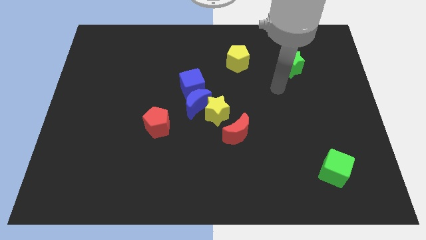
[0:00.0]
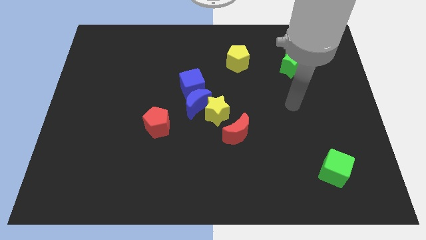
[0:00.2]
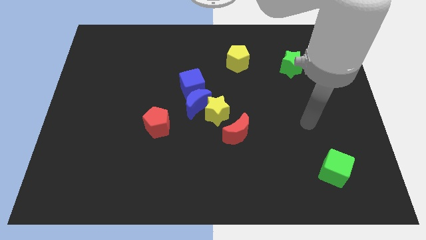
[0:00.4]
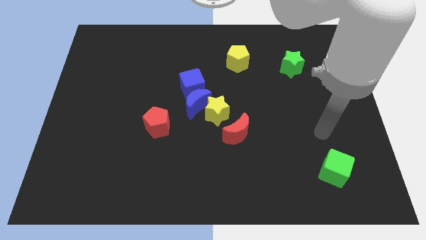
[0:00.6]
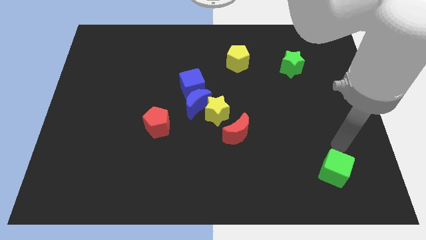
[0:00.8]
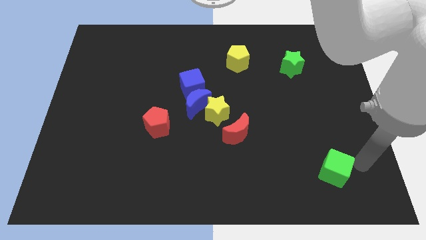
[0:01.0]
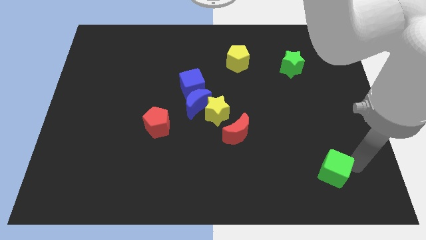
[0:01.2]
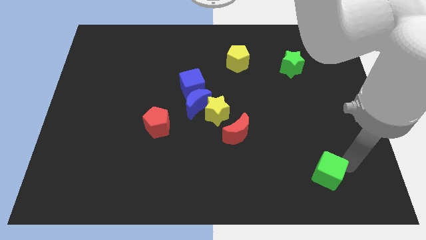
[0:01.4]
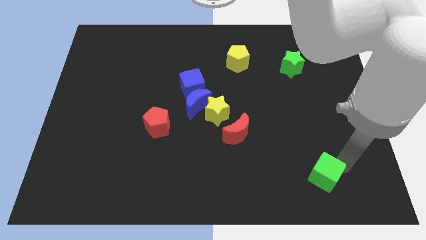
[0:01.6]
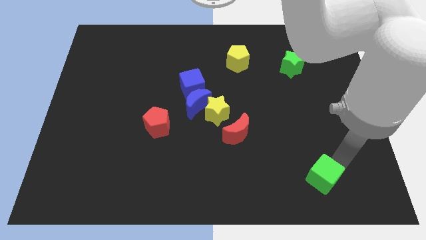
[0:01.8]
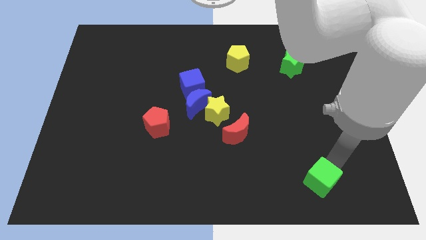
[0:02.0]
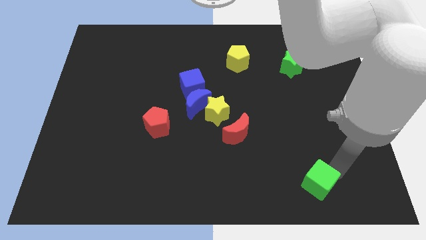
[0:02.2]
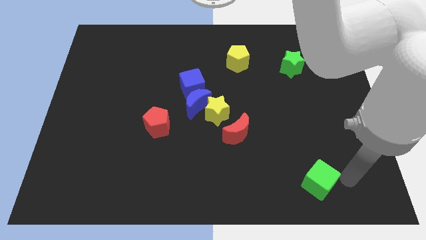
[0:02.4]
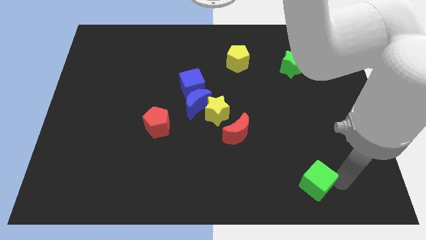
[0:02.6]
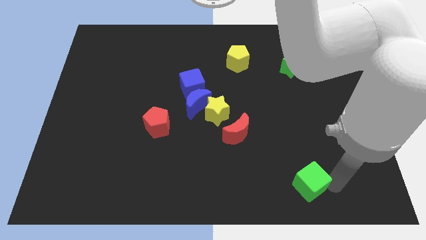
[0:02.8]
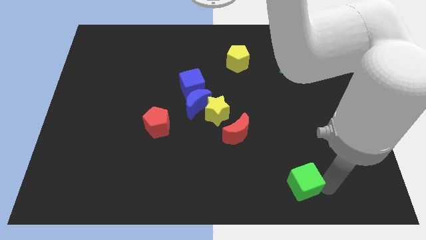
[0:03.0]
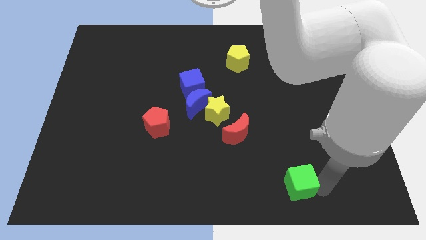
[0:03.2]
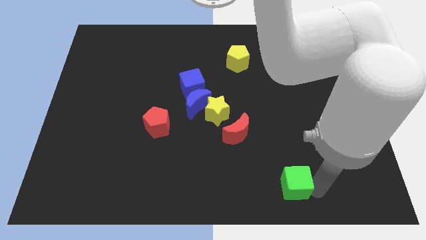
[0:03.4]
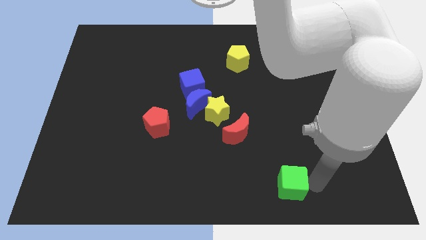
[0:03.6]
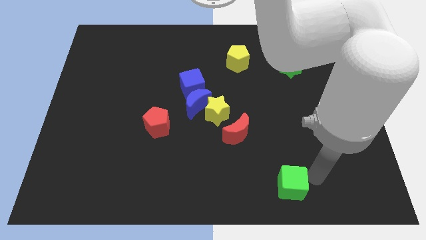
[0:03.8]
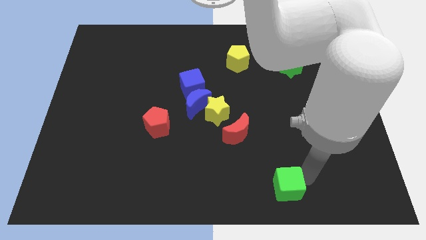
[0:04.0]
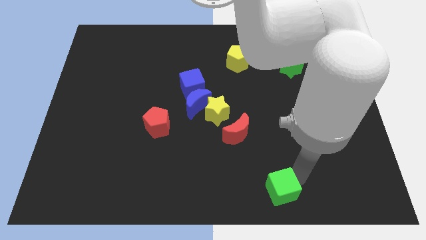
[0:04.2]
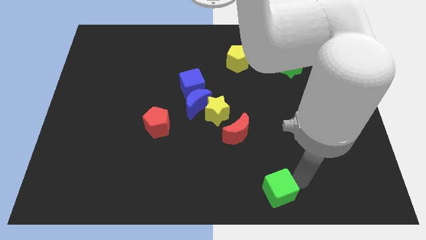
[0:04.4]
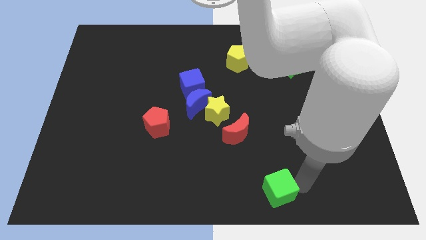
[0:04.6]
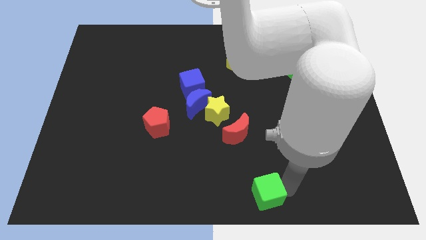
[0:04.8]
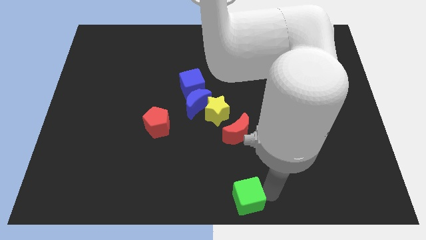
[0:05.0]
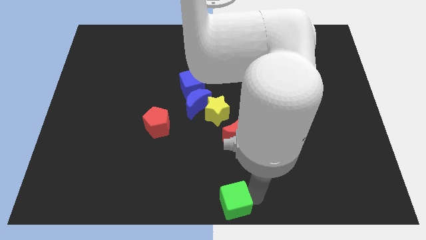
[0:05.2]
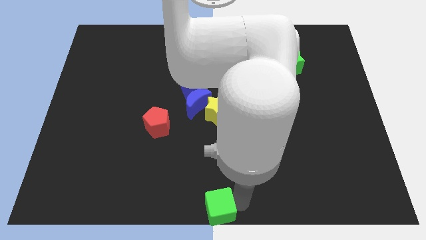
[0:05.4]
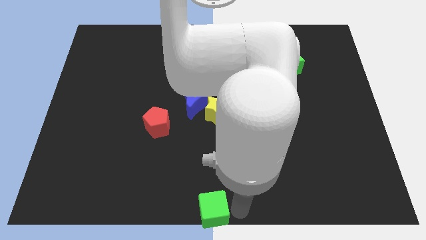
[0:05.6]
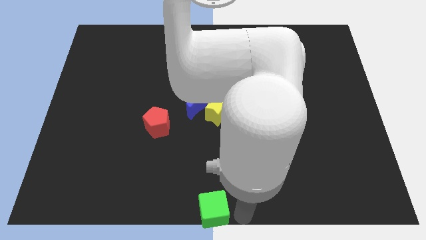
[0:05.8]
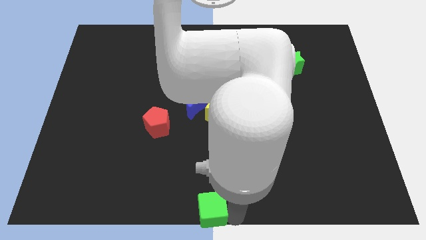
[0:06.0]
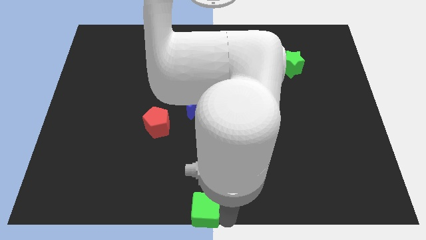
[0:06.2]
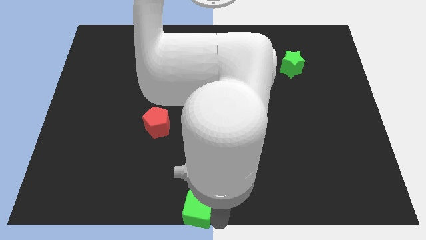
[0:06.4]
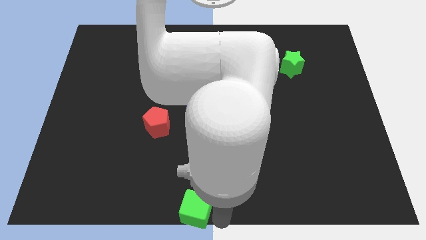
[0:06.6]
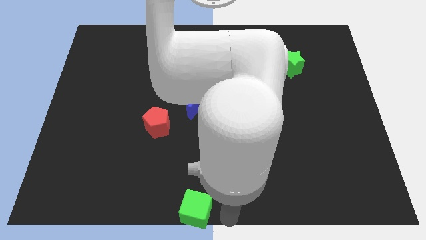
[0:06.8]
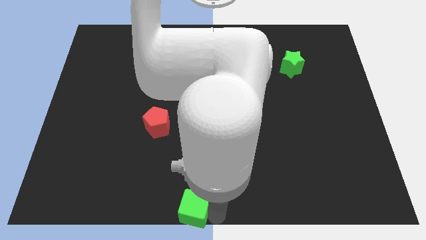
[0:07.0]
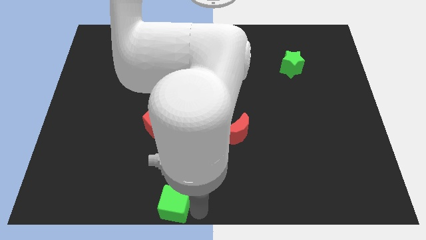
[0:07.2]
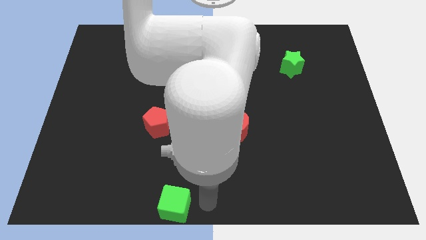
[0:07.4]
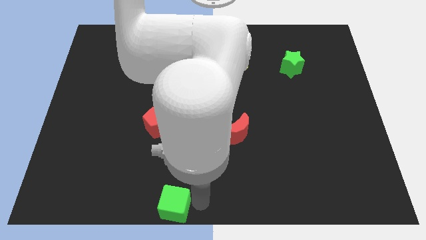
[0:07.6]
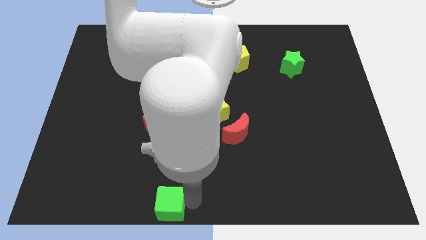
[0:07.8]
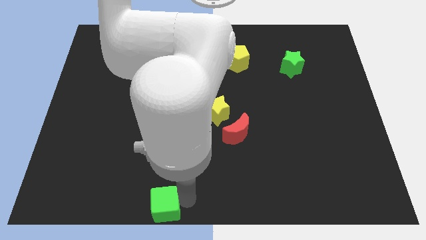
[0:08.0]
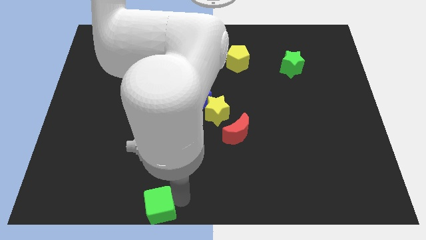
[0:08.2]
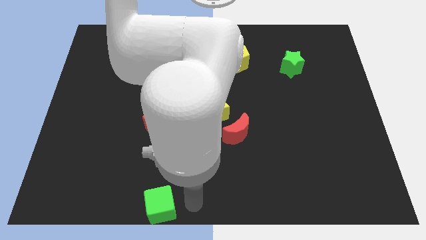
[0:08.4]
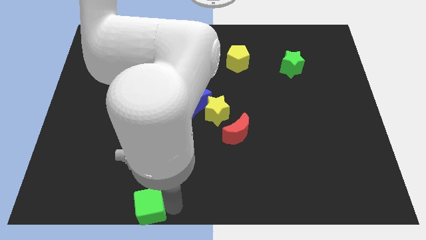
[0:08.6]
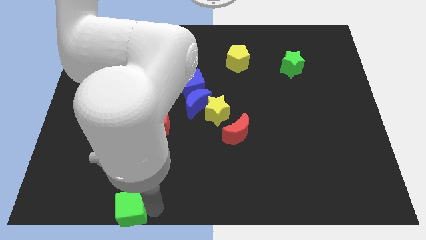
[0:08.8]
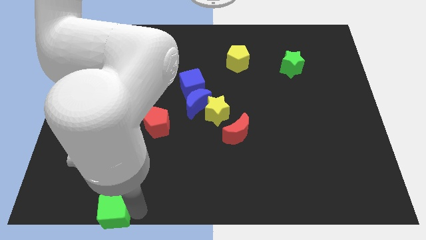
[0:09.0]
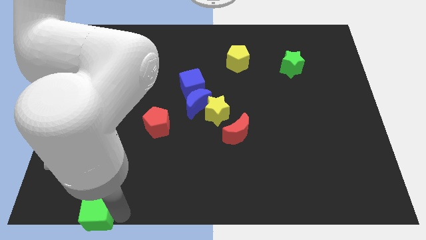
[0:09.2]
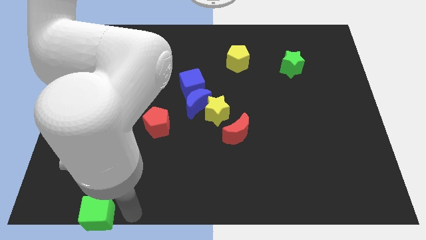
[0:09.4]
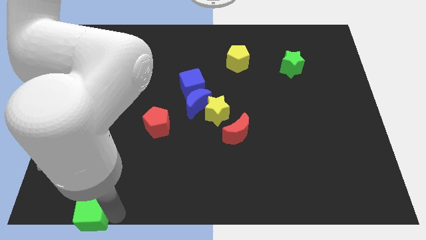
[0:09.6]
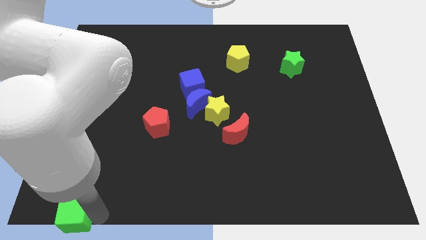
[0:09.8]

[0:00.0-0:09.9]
push the green cube to the bottom left of the board

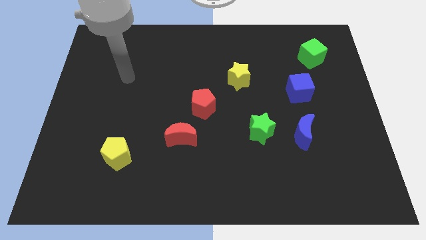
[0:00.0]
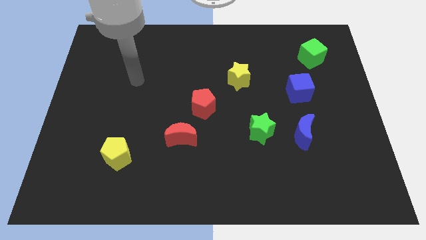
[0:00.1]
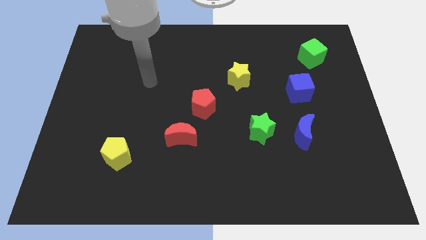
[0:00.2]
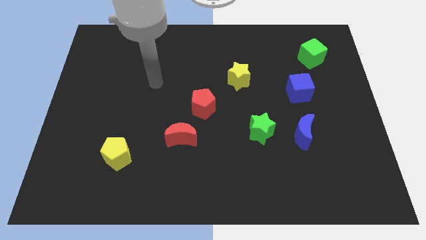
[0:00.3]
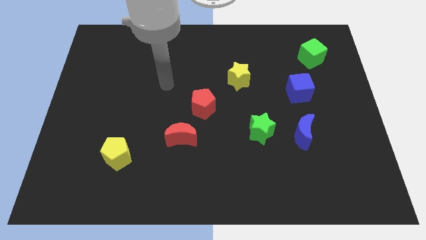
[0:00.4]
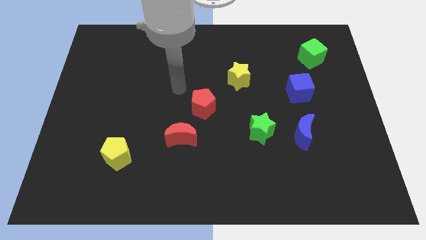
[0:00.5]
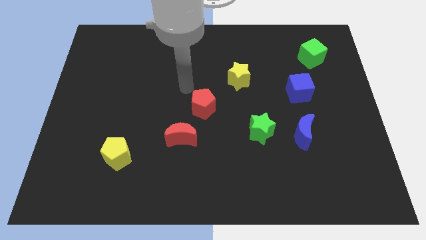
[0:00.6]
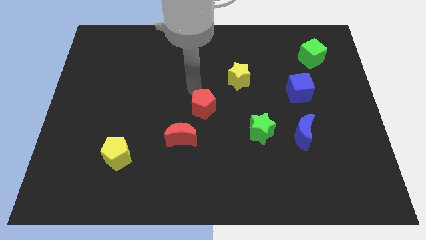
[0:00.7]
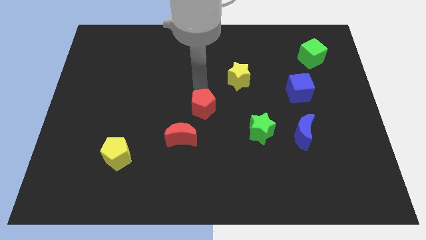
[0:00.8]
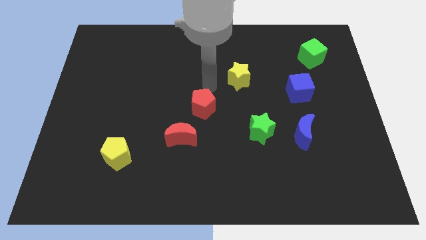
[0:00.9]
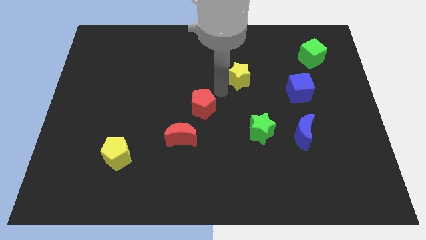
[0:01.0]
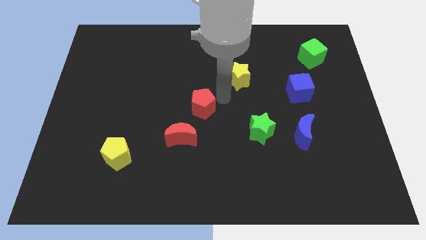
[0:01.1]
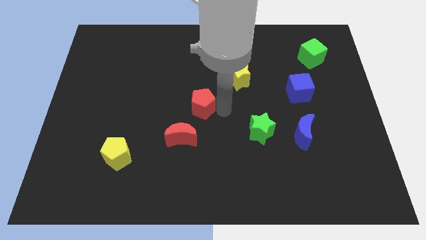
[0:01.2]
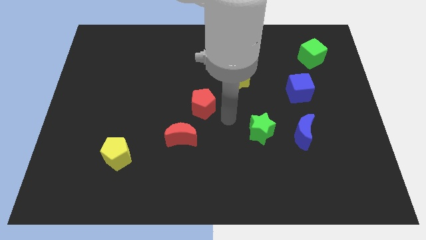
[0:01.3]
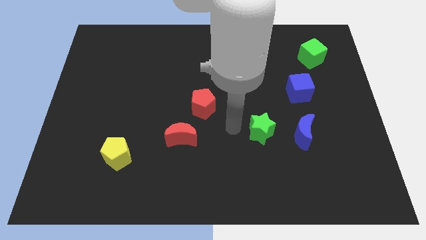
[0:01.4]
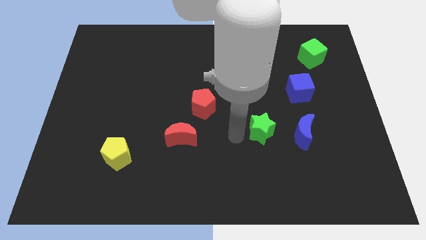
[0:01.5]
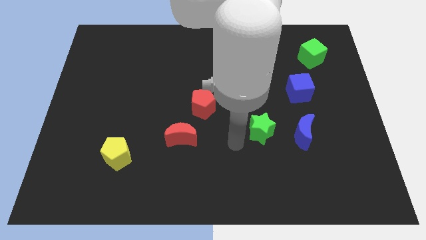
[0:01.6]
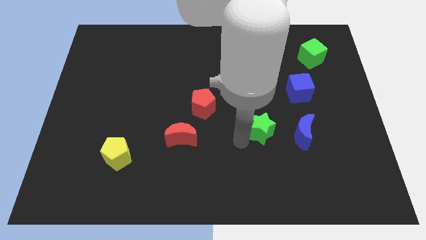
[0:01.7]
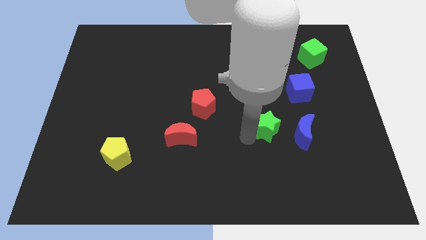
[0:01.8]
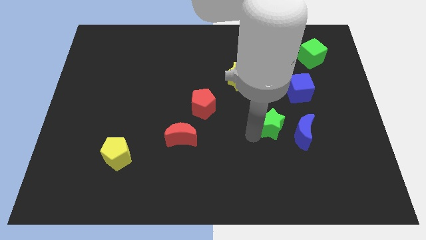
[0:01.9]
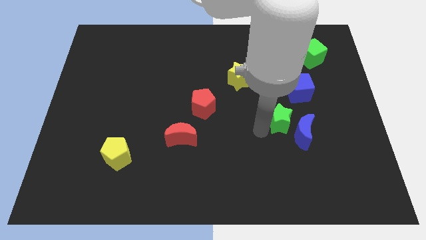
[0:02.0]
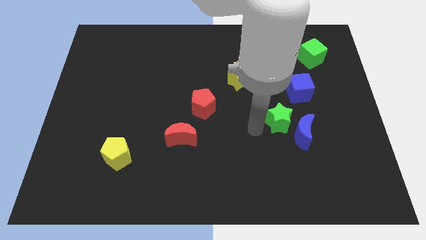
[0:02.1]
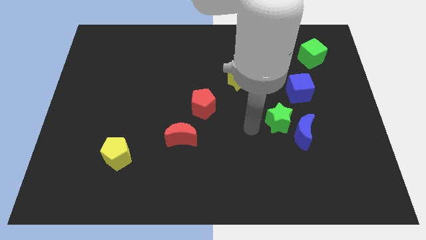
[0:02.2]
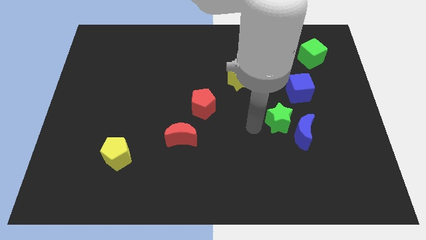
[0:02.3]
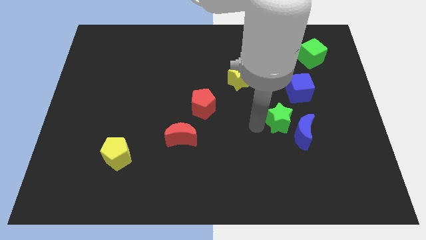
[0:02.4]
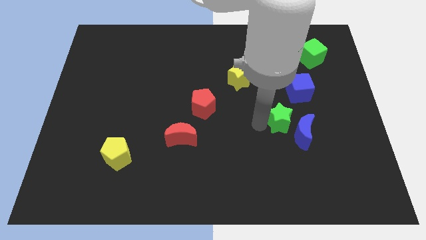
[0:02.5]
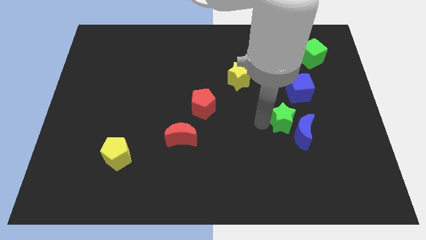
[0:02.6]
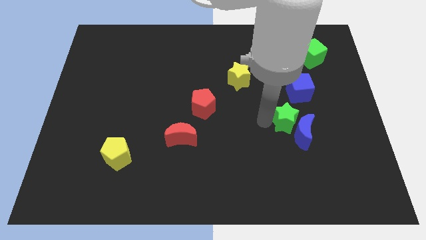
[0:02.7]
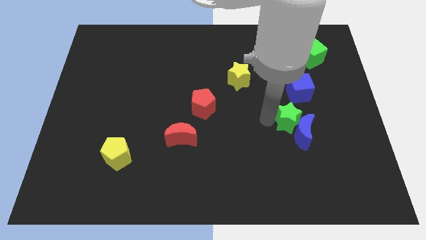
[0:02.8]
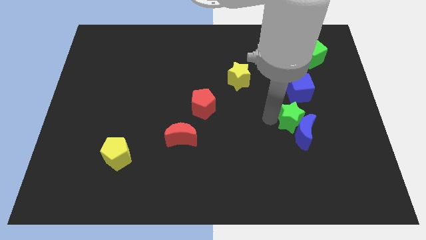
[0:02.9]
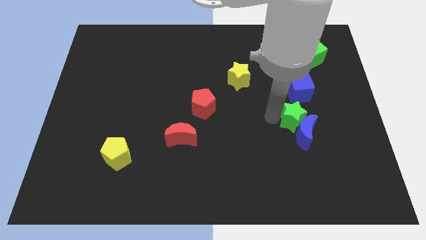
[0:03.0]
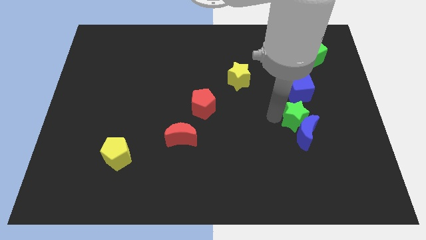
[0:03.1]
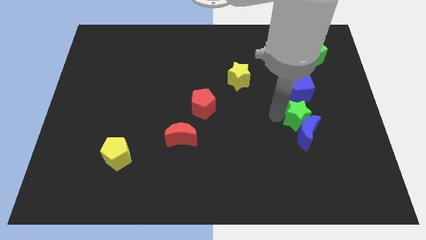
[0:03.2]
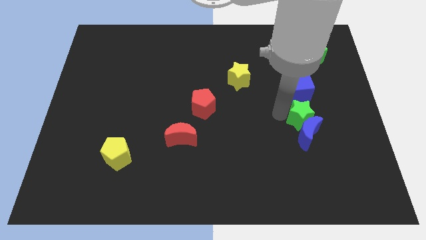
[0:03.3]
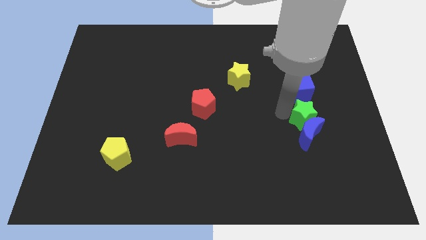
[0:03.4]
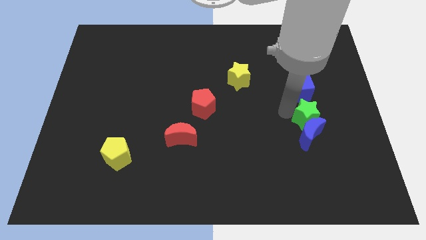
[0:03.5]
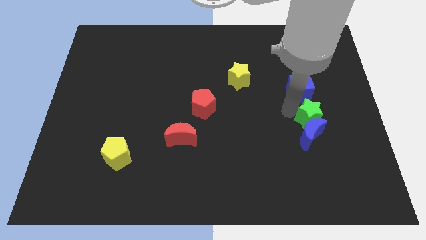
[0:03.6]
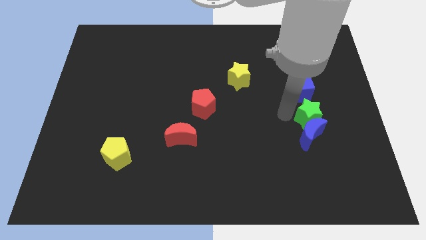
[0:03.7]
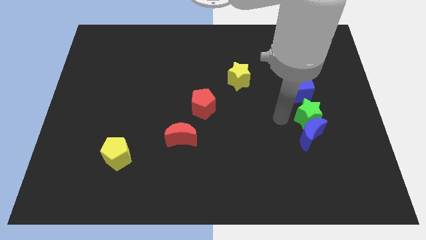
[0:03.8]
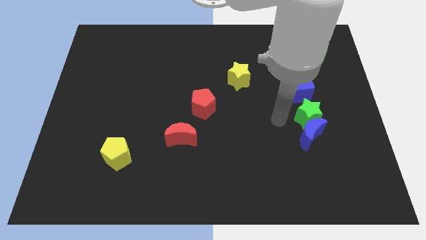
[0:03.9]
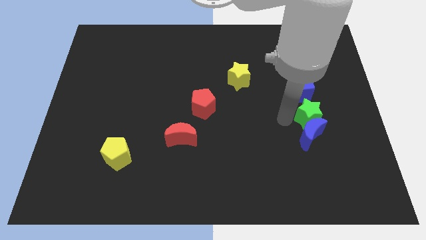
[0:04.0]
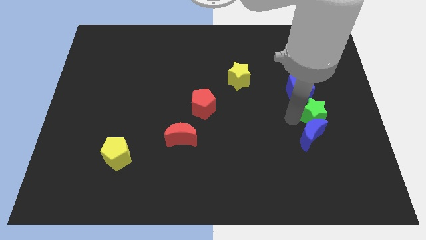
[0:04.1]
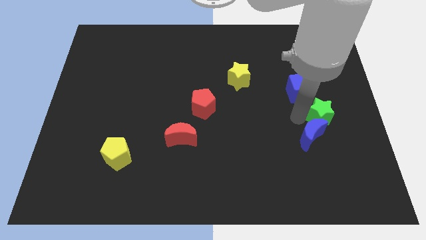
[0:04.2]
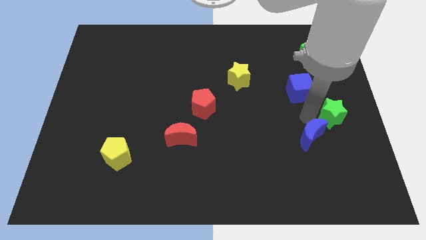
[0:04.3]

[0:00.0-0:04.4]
put the green star to the right side
